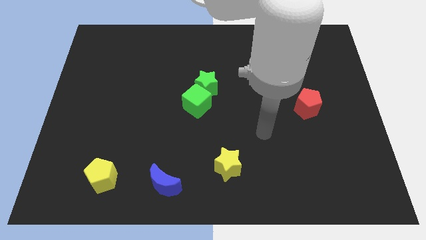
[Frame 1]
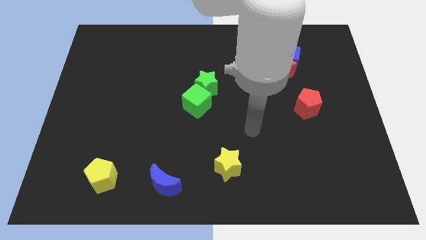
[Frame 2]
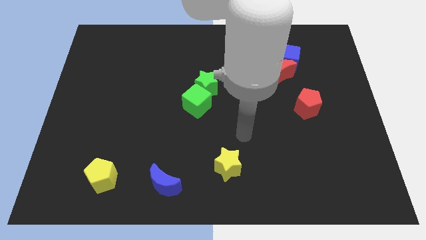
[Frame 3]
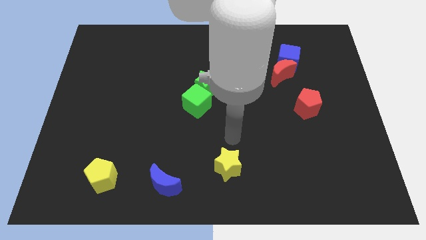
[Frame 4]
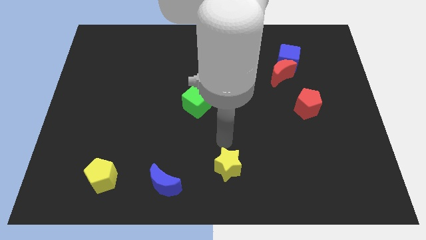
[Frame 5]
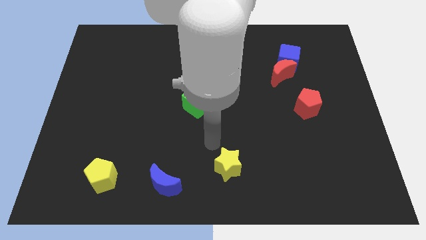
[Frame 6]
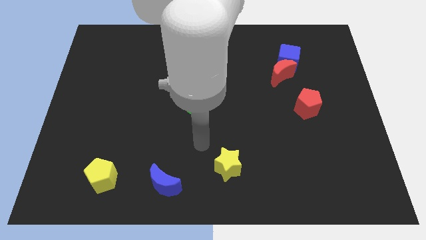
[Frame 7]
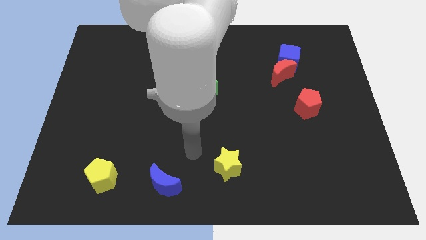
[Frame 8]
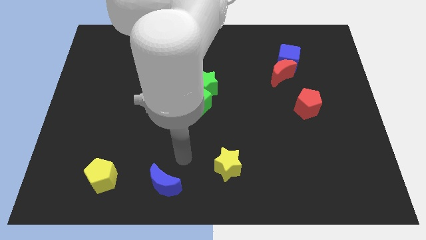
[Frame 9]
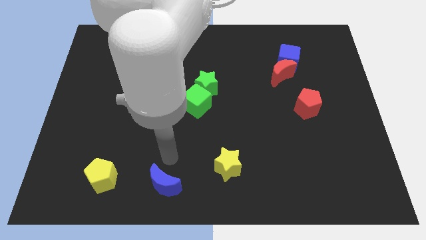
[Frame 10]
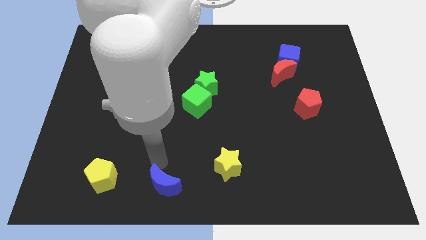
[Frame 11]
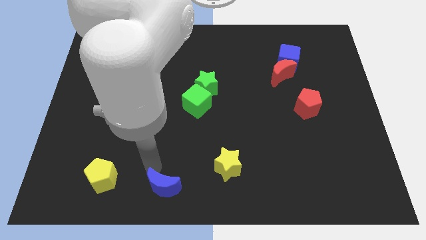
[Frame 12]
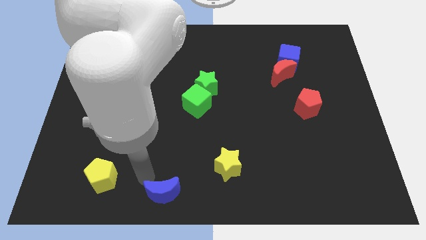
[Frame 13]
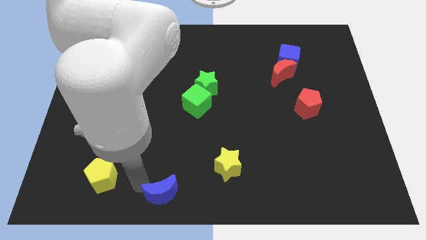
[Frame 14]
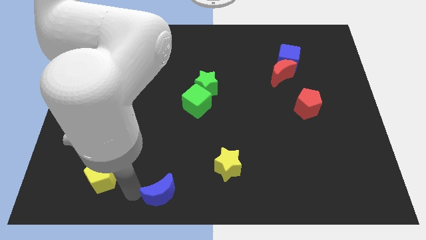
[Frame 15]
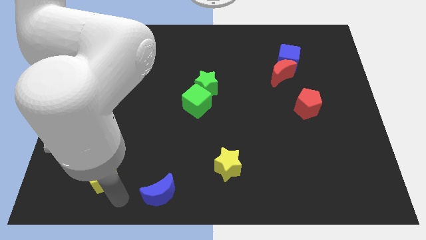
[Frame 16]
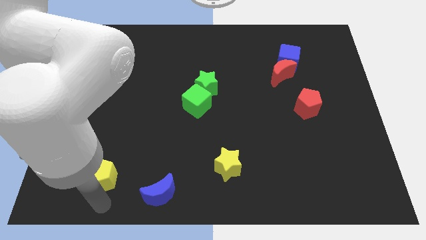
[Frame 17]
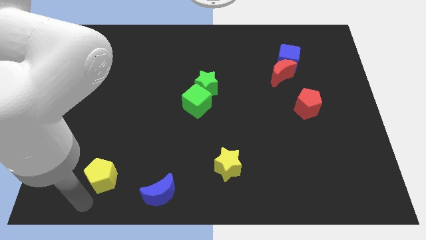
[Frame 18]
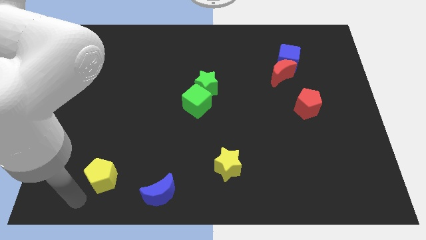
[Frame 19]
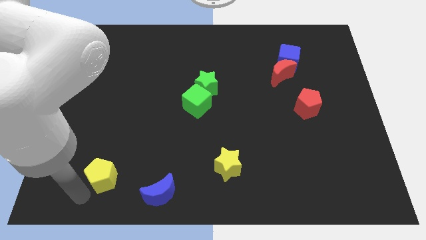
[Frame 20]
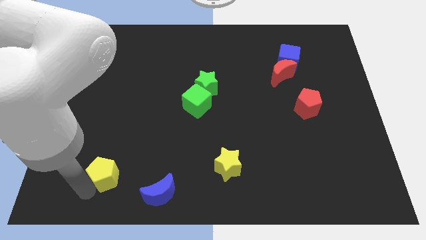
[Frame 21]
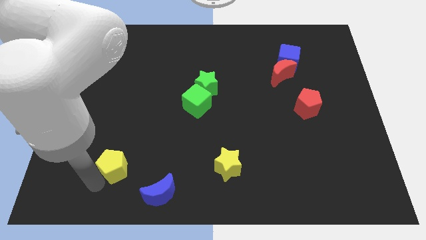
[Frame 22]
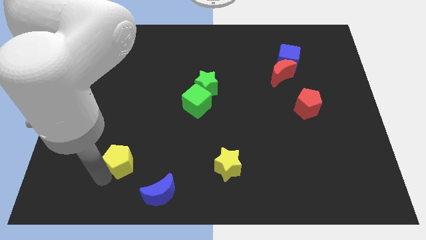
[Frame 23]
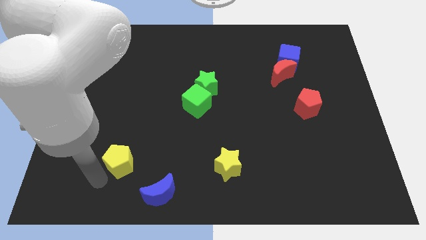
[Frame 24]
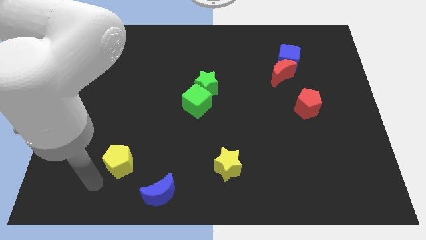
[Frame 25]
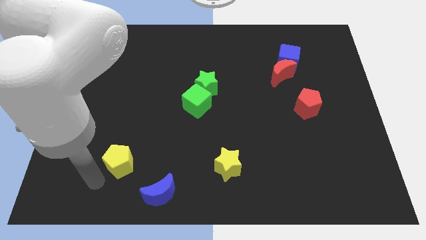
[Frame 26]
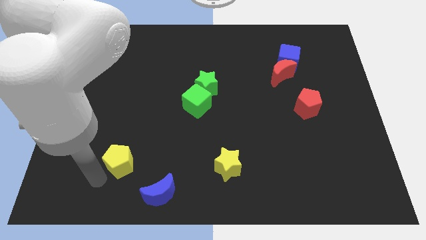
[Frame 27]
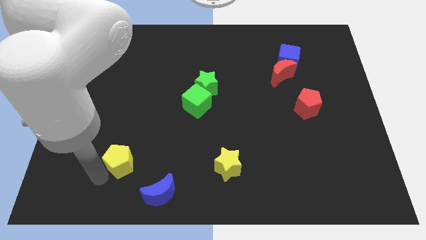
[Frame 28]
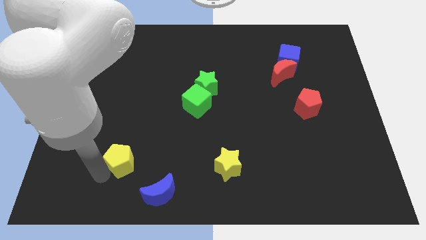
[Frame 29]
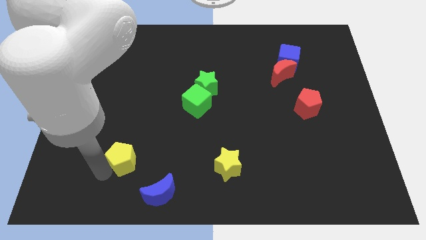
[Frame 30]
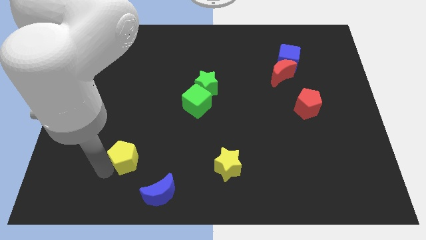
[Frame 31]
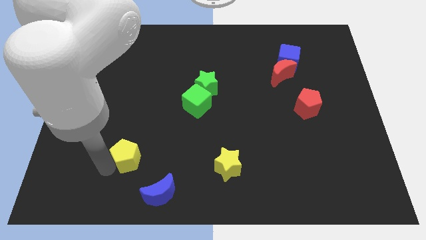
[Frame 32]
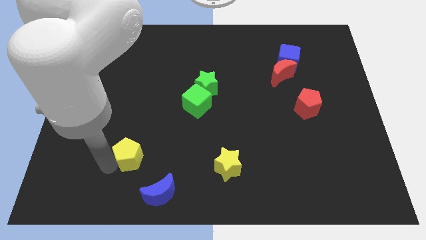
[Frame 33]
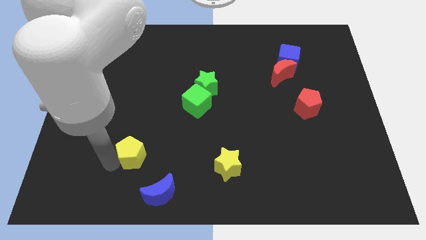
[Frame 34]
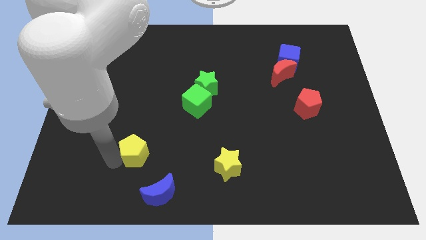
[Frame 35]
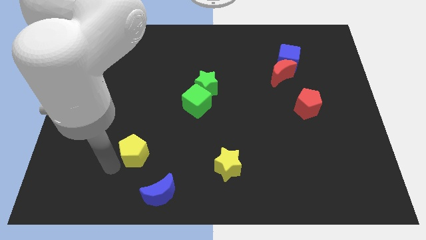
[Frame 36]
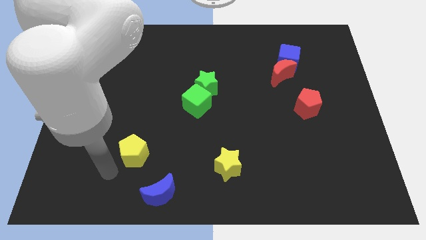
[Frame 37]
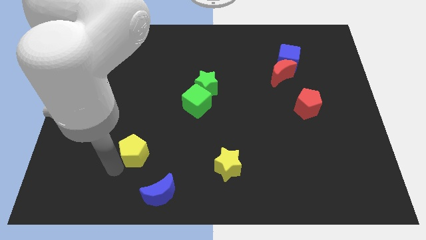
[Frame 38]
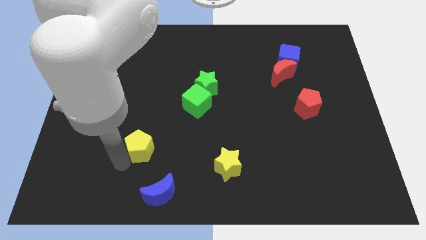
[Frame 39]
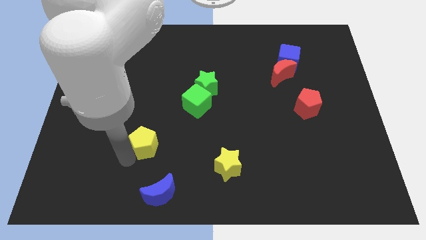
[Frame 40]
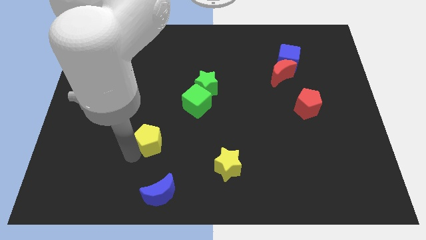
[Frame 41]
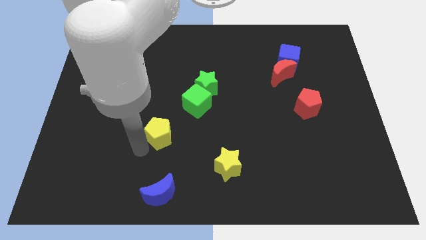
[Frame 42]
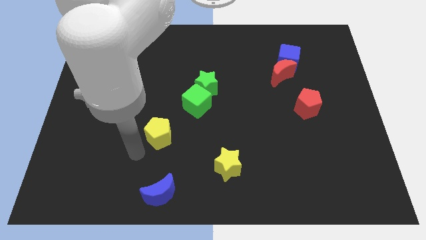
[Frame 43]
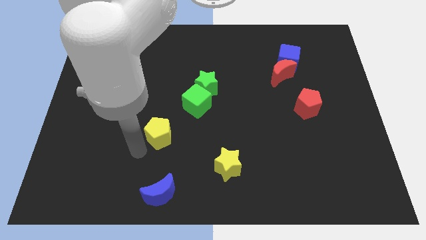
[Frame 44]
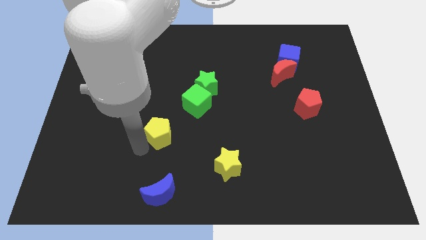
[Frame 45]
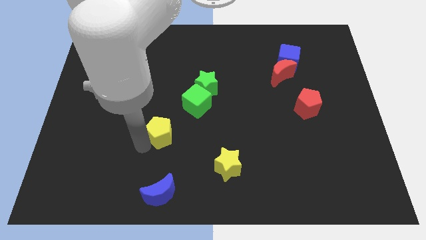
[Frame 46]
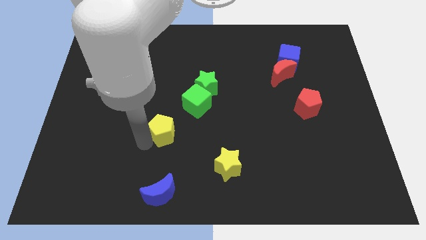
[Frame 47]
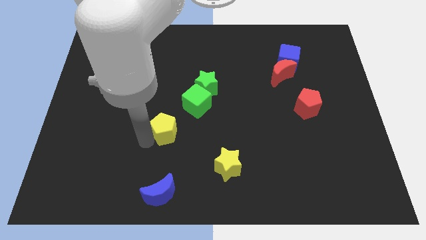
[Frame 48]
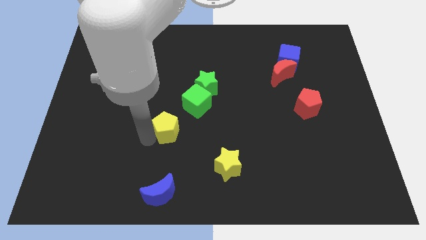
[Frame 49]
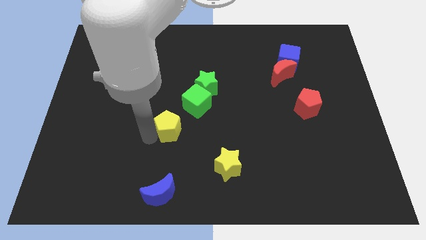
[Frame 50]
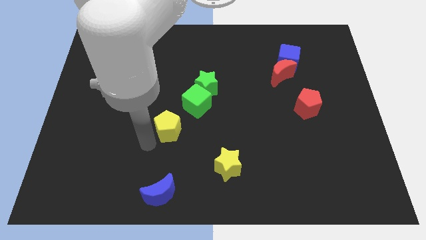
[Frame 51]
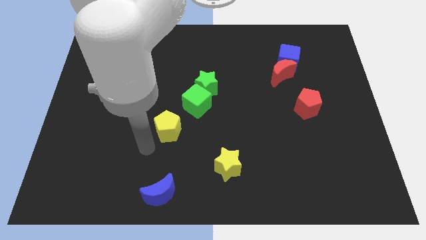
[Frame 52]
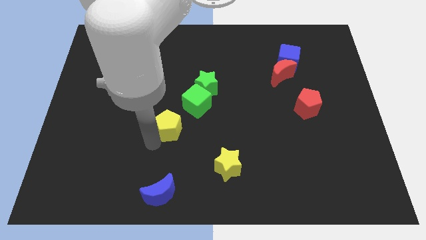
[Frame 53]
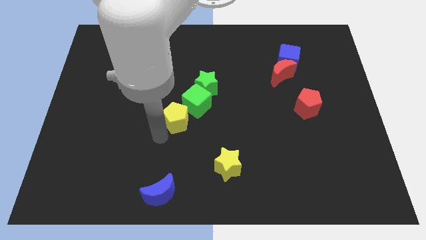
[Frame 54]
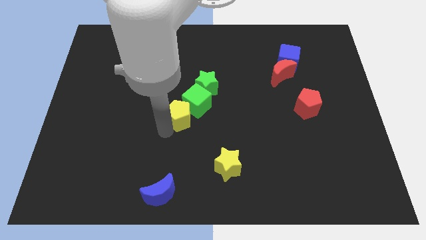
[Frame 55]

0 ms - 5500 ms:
slide the yellow pentagon towards the green cube

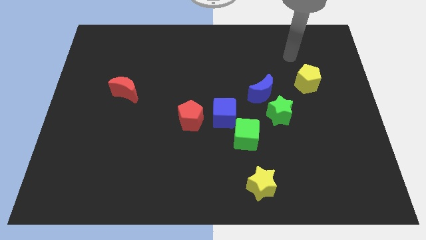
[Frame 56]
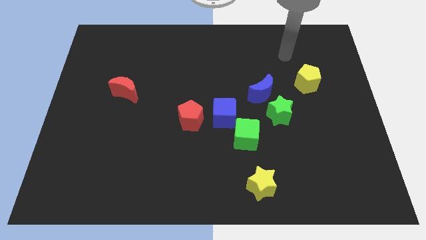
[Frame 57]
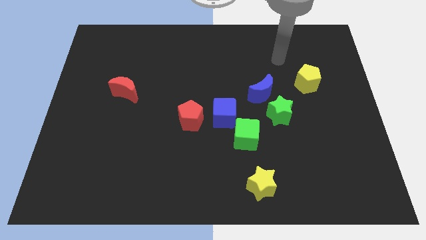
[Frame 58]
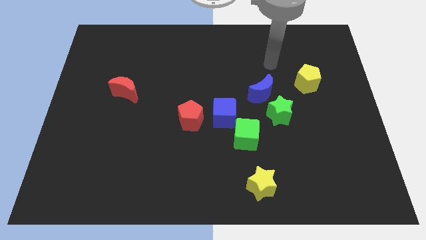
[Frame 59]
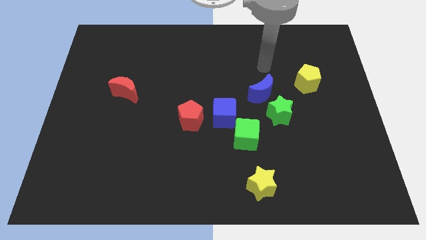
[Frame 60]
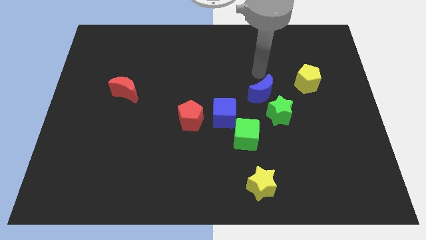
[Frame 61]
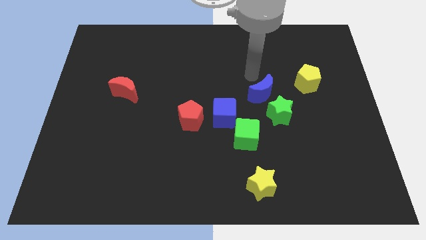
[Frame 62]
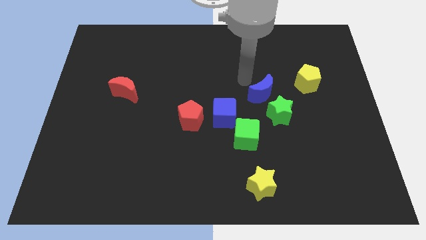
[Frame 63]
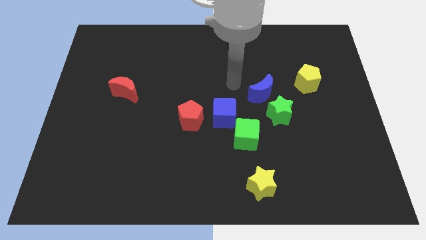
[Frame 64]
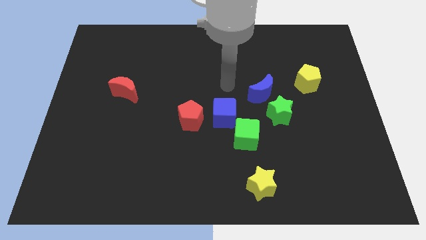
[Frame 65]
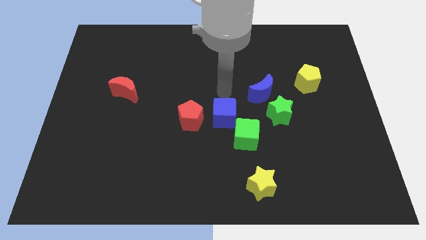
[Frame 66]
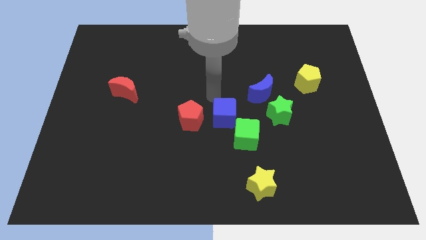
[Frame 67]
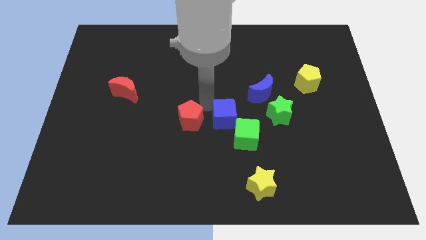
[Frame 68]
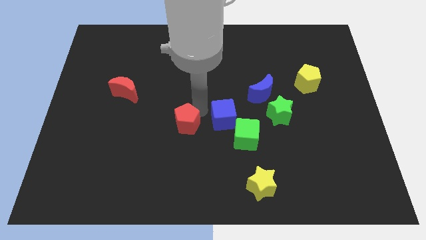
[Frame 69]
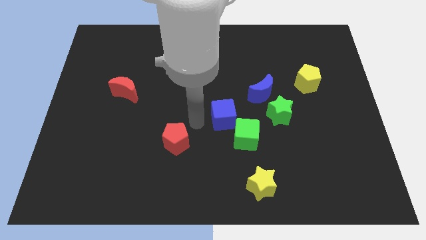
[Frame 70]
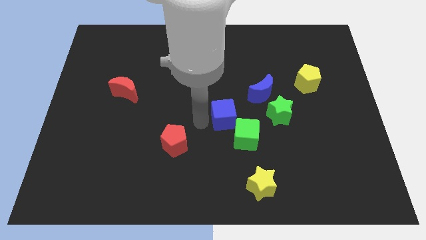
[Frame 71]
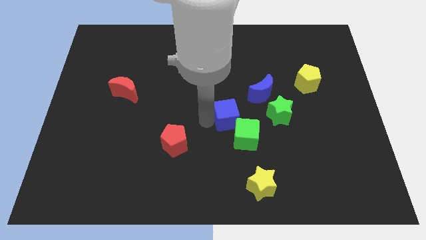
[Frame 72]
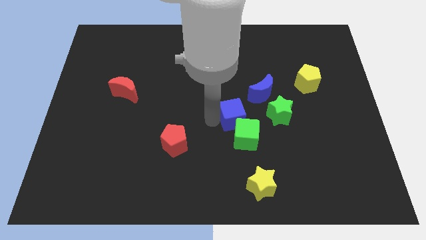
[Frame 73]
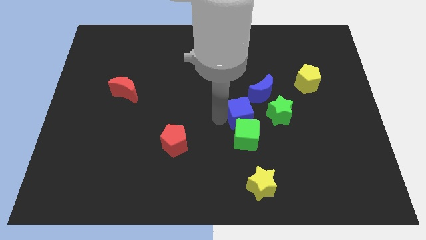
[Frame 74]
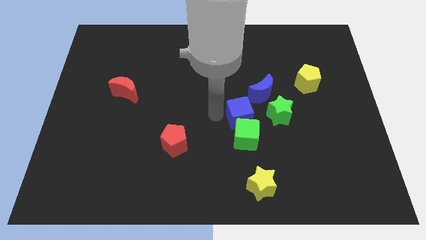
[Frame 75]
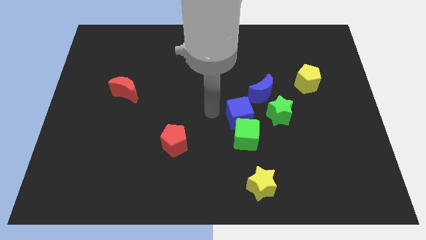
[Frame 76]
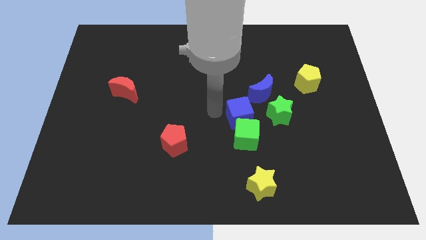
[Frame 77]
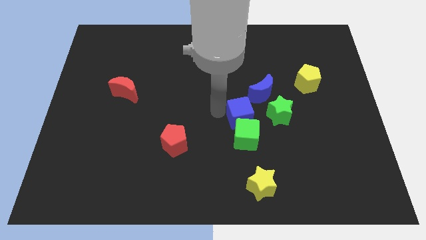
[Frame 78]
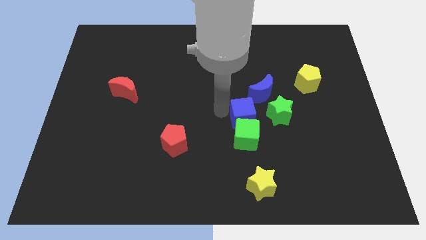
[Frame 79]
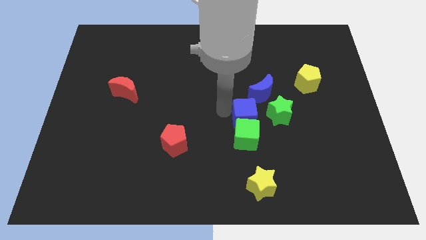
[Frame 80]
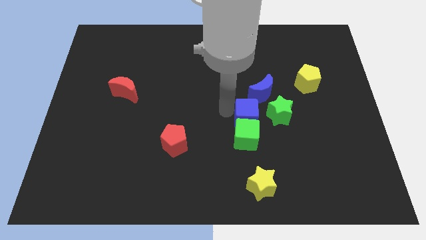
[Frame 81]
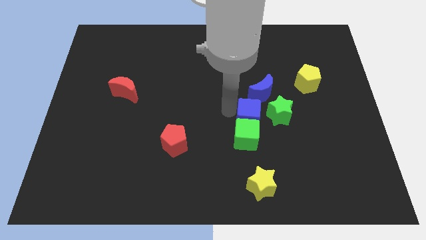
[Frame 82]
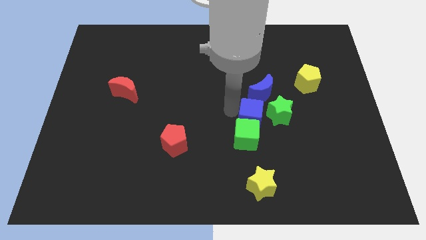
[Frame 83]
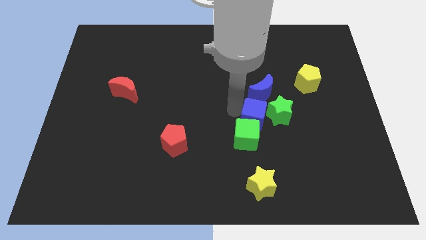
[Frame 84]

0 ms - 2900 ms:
move the blue cube next to the green star
